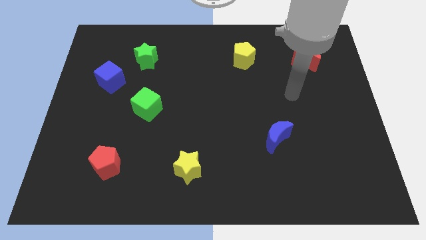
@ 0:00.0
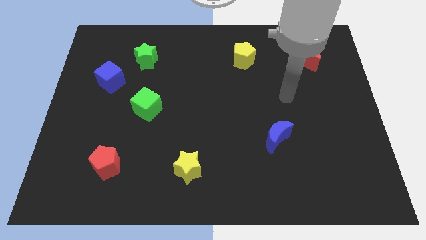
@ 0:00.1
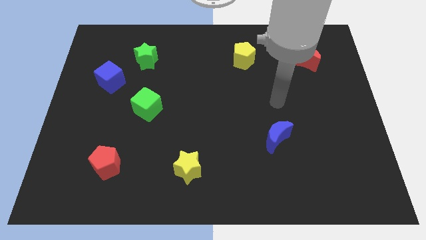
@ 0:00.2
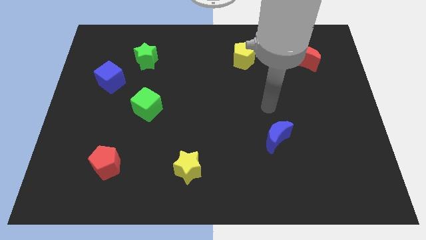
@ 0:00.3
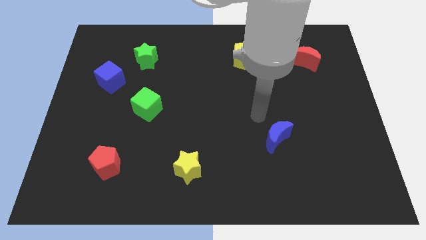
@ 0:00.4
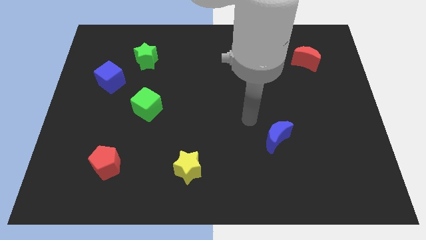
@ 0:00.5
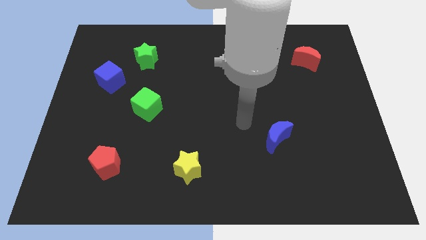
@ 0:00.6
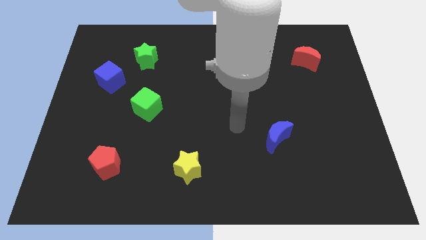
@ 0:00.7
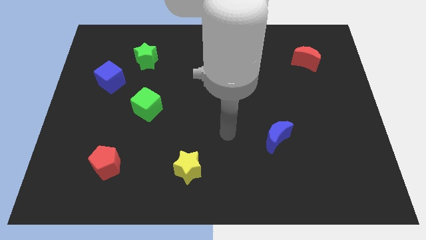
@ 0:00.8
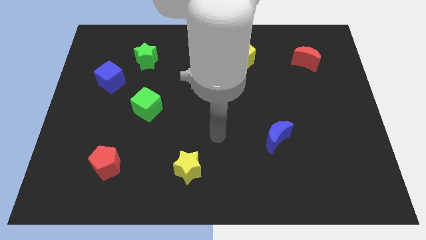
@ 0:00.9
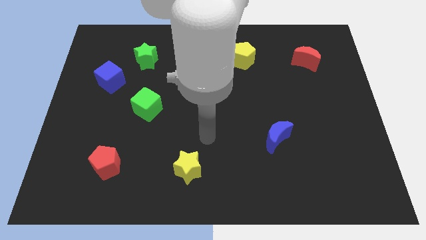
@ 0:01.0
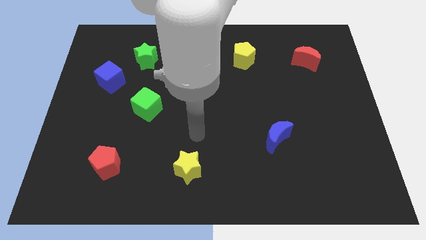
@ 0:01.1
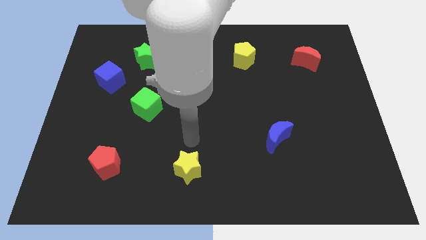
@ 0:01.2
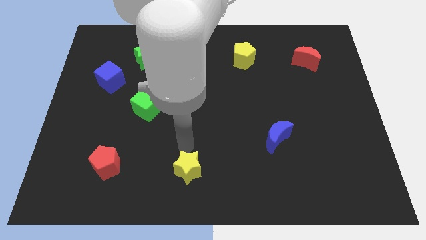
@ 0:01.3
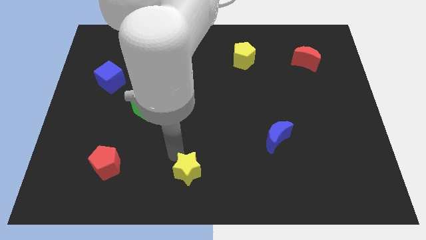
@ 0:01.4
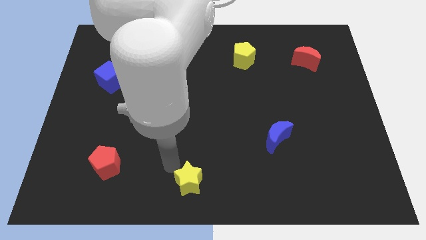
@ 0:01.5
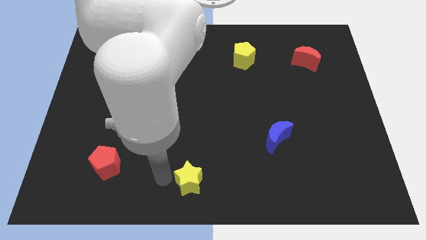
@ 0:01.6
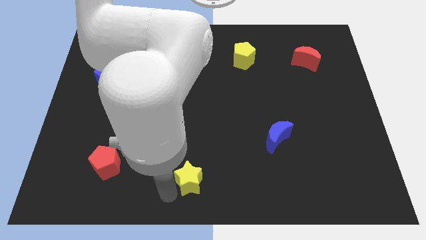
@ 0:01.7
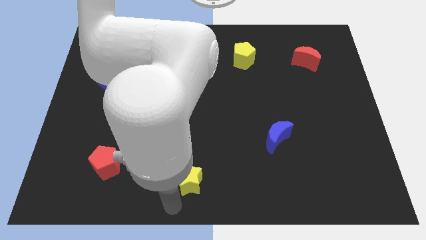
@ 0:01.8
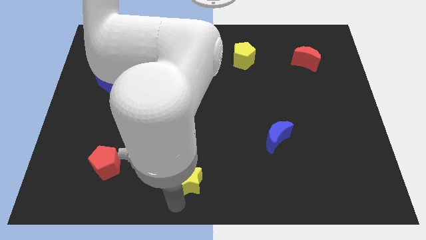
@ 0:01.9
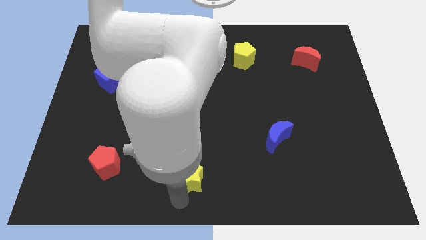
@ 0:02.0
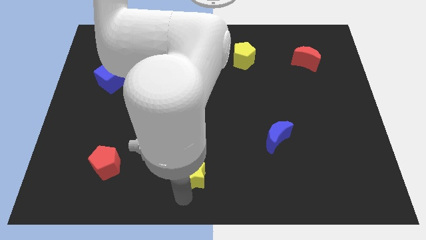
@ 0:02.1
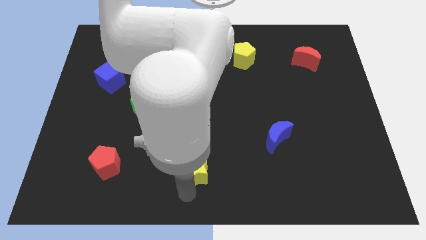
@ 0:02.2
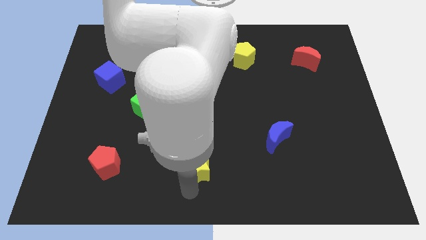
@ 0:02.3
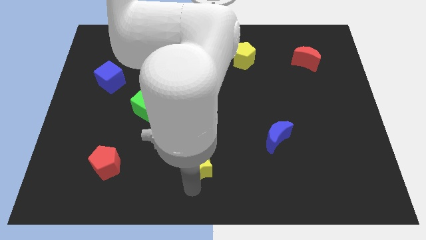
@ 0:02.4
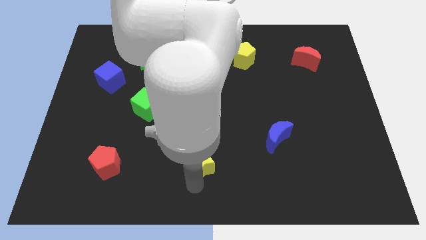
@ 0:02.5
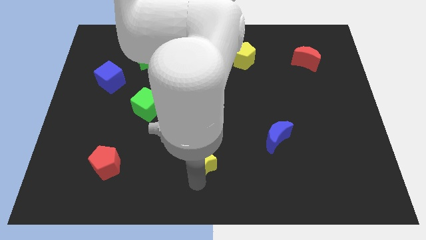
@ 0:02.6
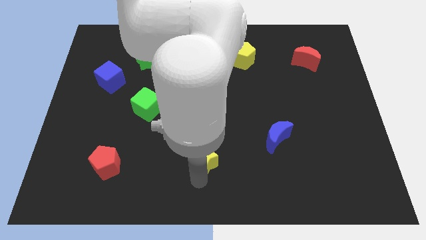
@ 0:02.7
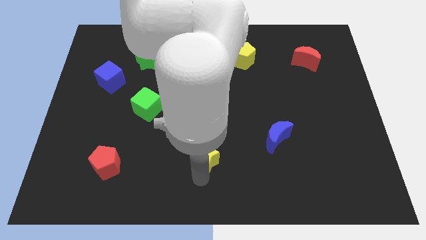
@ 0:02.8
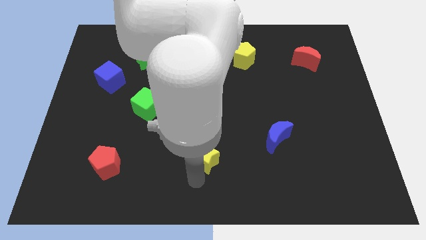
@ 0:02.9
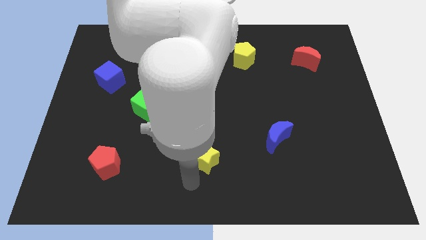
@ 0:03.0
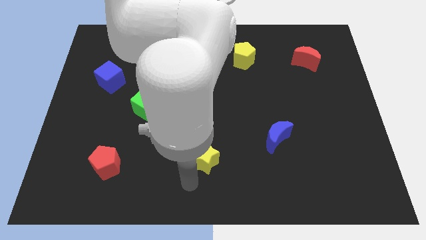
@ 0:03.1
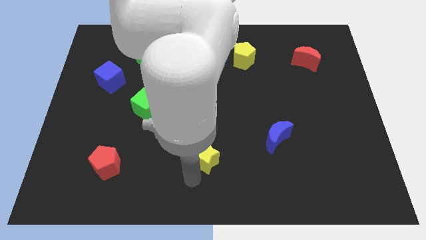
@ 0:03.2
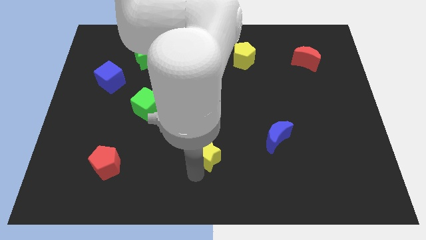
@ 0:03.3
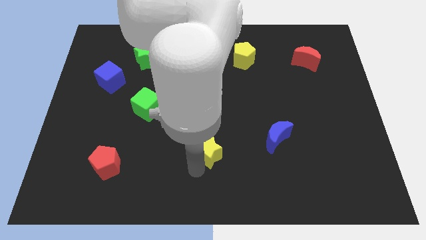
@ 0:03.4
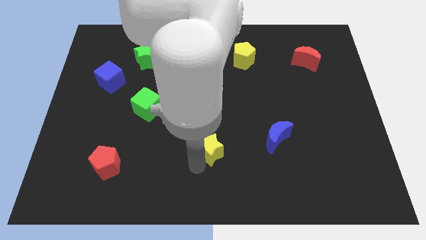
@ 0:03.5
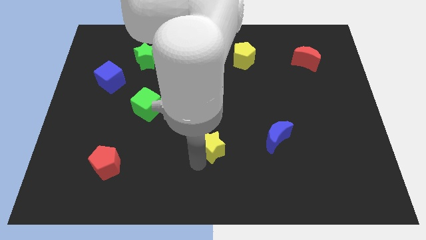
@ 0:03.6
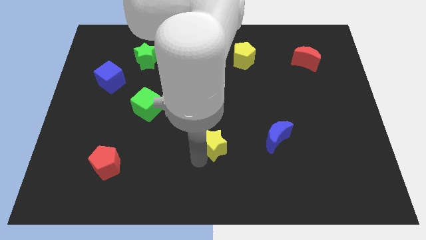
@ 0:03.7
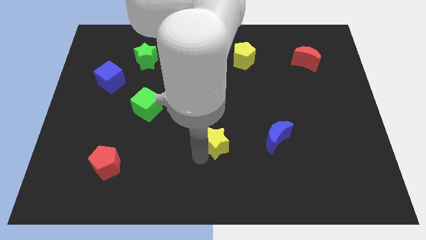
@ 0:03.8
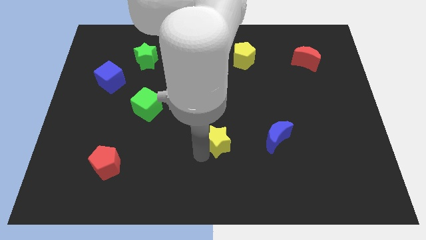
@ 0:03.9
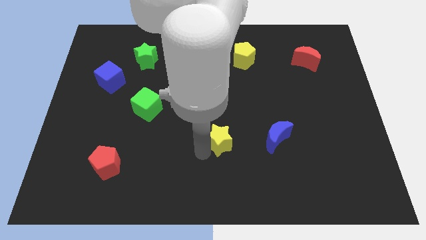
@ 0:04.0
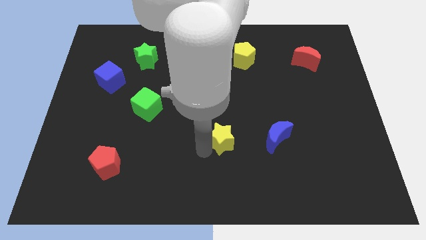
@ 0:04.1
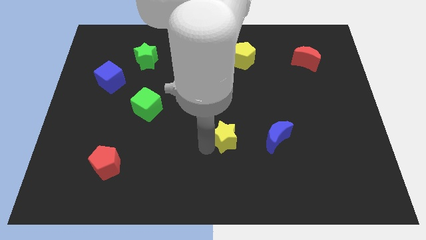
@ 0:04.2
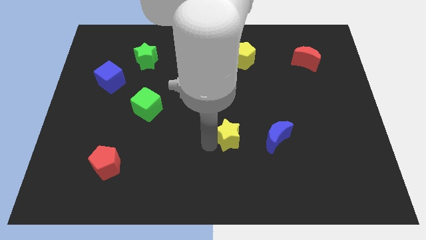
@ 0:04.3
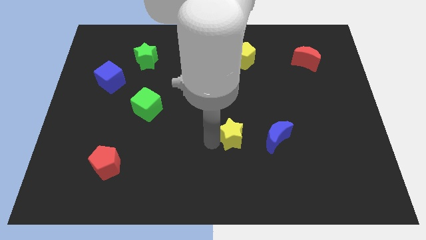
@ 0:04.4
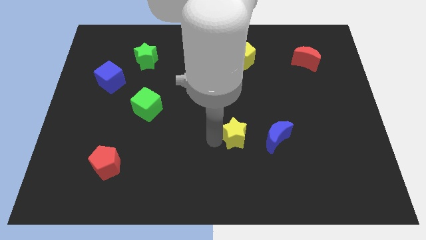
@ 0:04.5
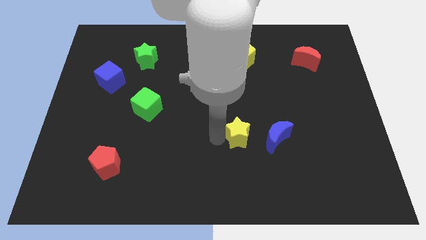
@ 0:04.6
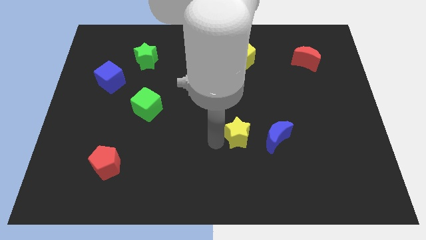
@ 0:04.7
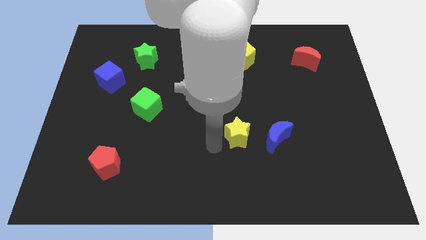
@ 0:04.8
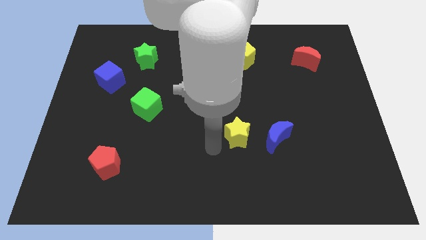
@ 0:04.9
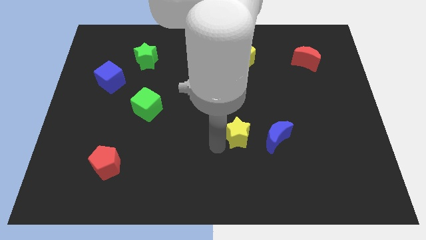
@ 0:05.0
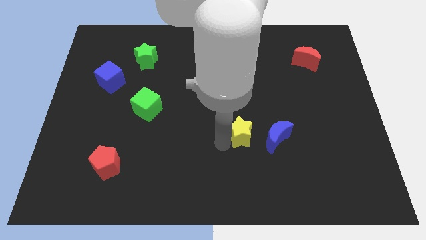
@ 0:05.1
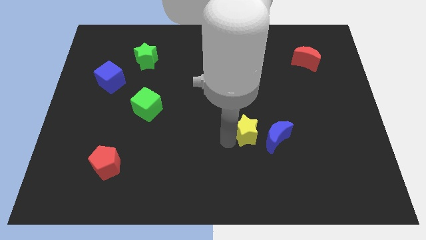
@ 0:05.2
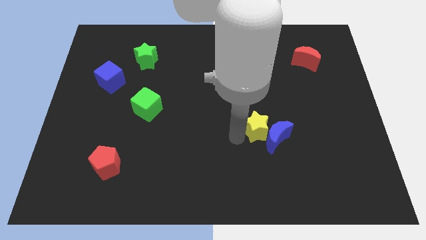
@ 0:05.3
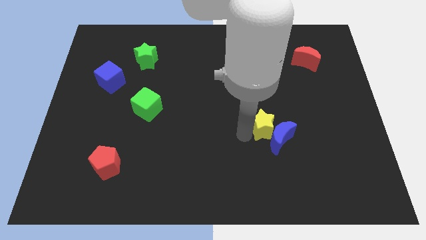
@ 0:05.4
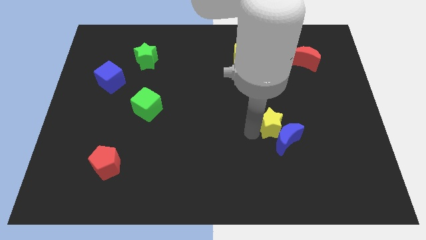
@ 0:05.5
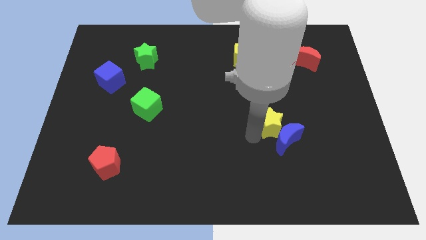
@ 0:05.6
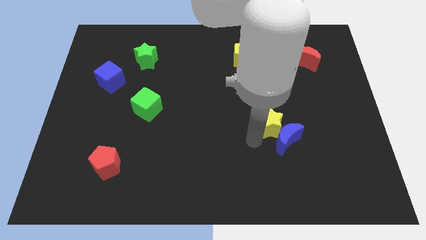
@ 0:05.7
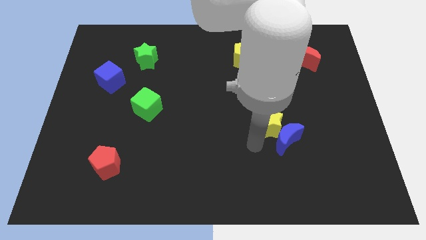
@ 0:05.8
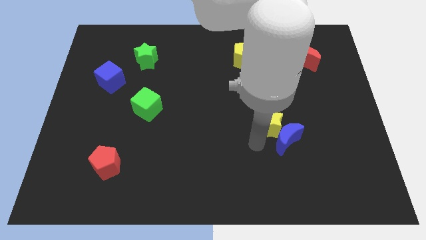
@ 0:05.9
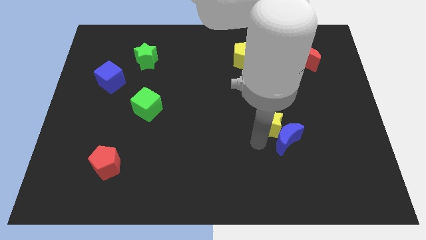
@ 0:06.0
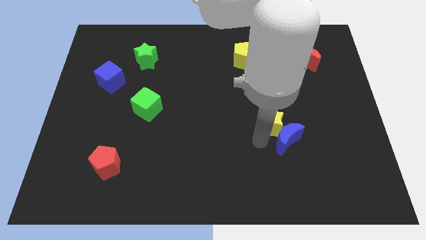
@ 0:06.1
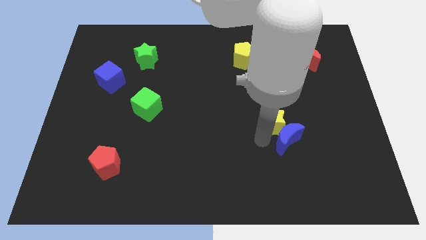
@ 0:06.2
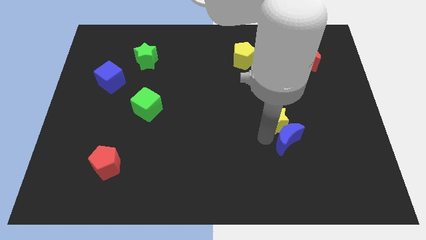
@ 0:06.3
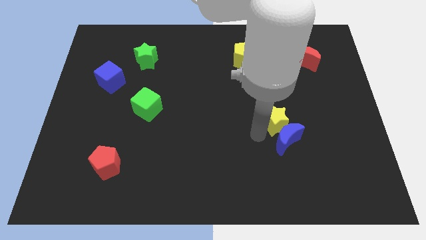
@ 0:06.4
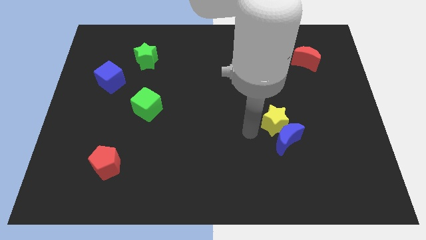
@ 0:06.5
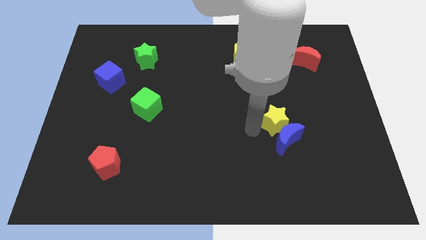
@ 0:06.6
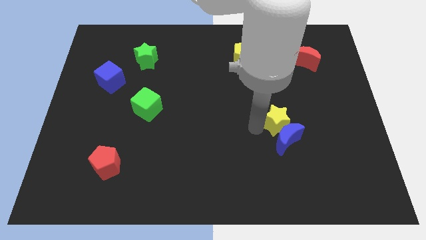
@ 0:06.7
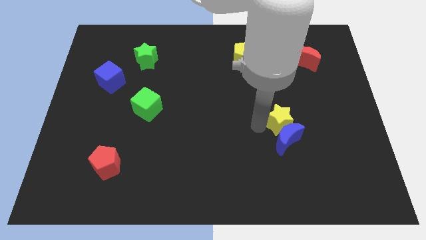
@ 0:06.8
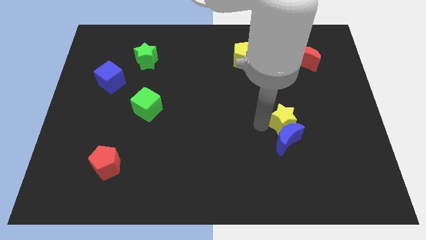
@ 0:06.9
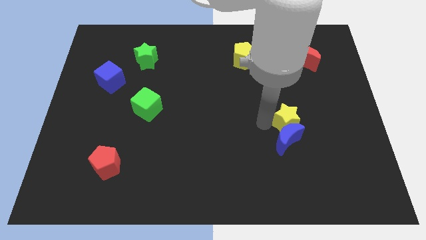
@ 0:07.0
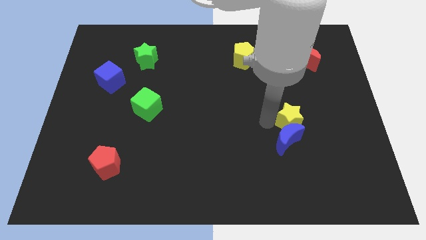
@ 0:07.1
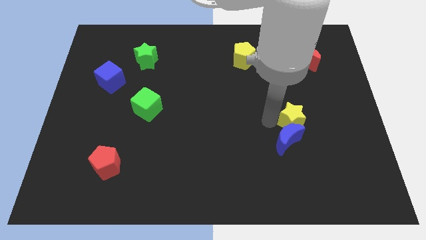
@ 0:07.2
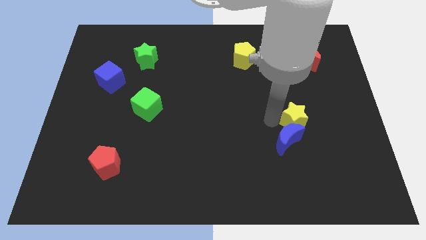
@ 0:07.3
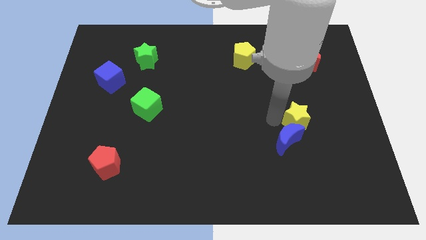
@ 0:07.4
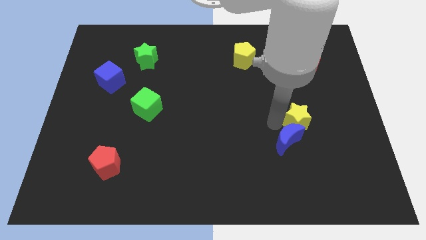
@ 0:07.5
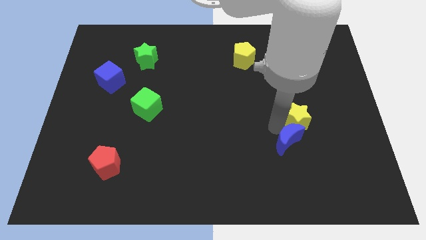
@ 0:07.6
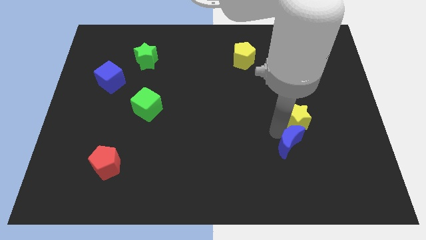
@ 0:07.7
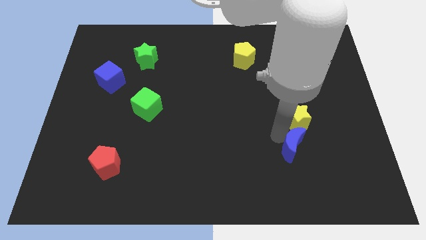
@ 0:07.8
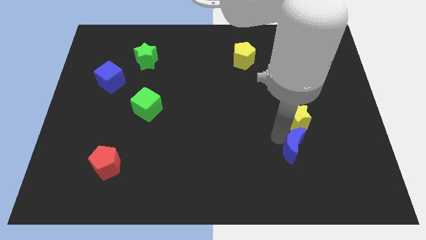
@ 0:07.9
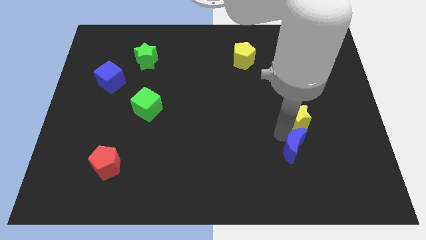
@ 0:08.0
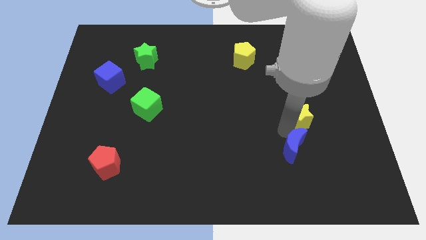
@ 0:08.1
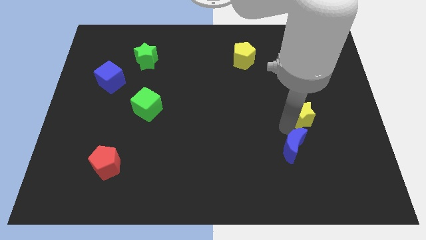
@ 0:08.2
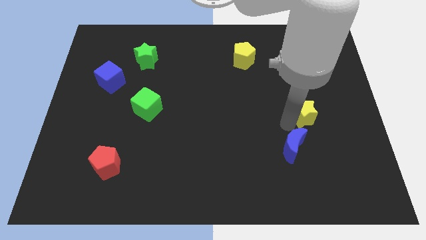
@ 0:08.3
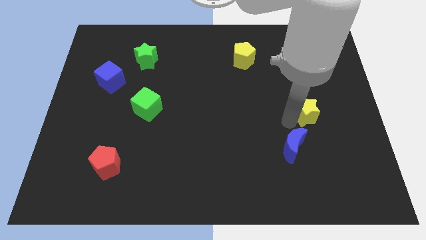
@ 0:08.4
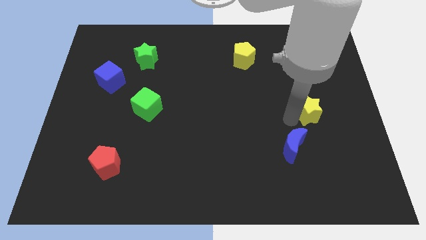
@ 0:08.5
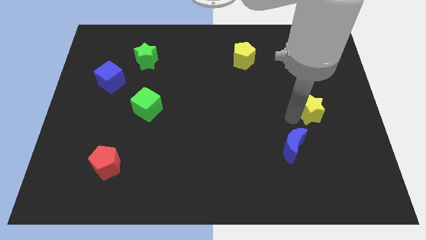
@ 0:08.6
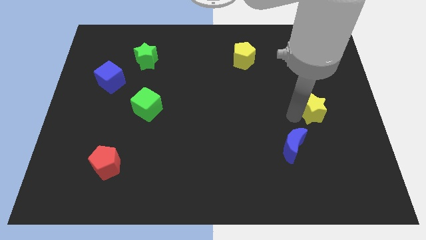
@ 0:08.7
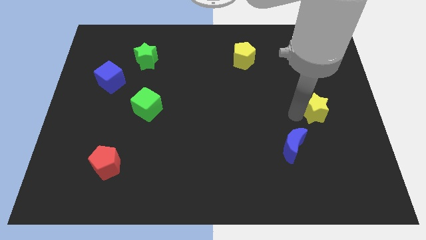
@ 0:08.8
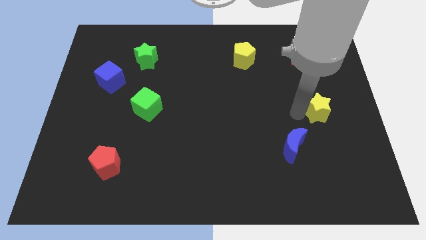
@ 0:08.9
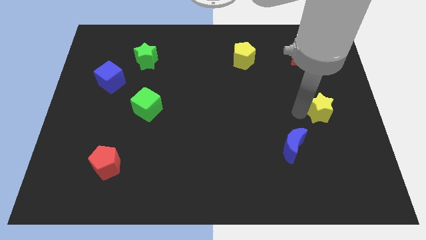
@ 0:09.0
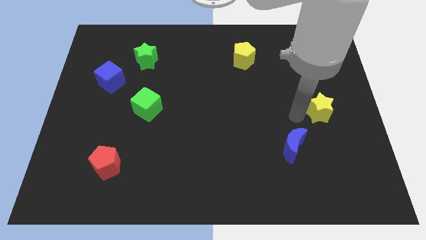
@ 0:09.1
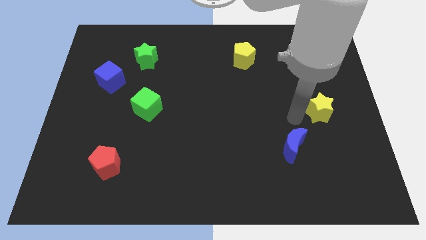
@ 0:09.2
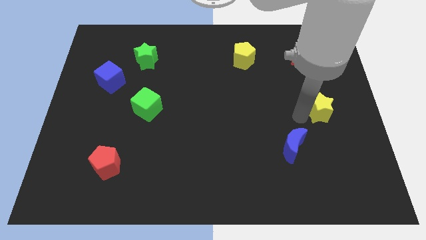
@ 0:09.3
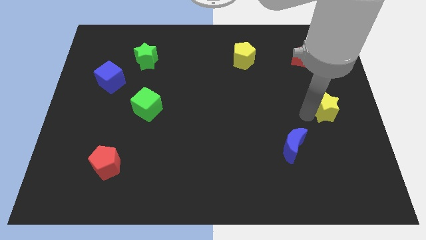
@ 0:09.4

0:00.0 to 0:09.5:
move the yellow star to the right side of the board
